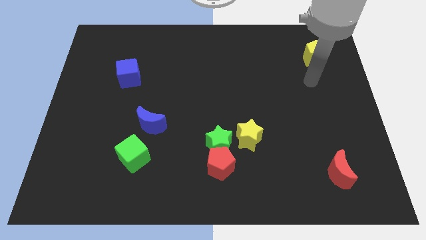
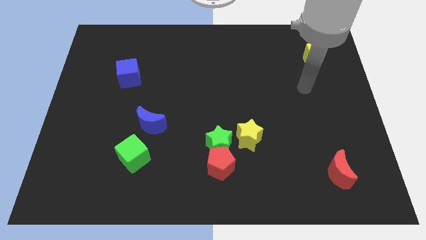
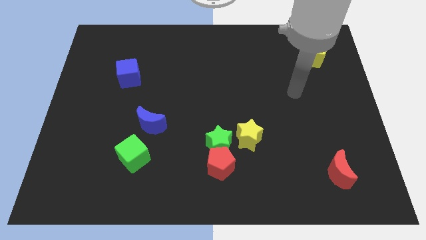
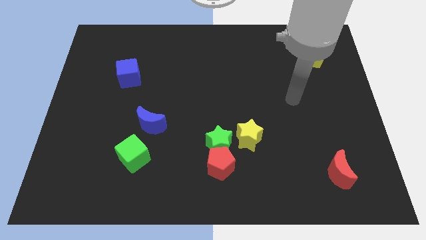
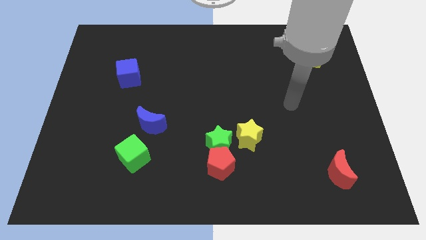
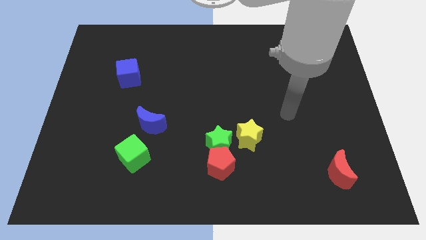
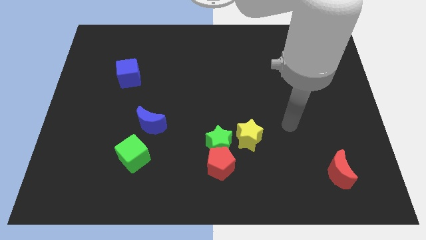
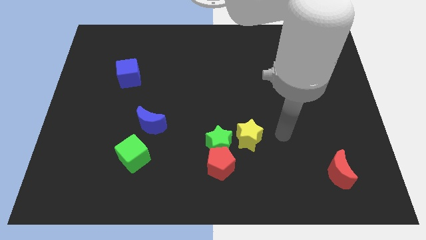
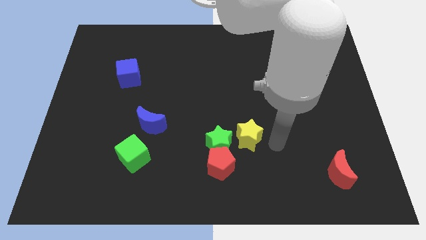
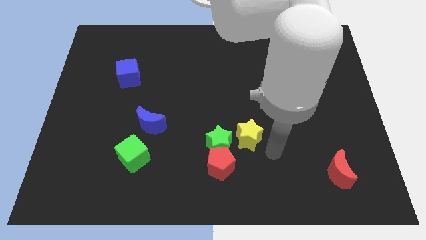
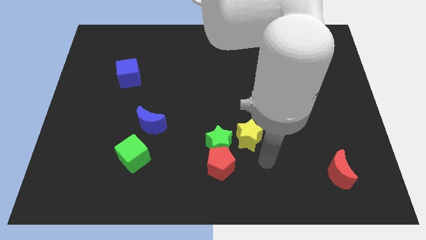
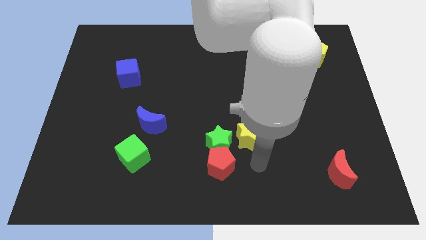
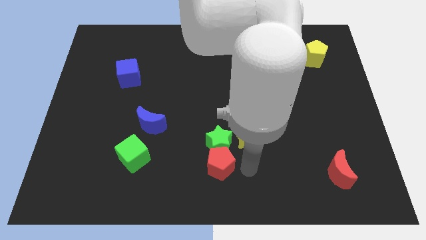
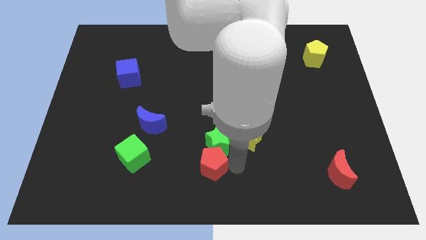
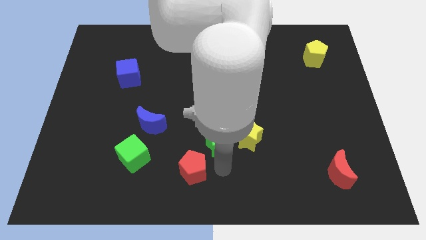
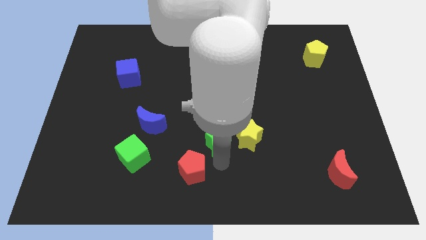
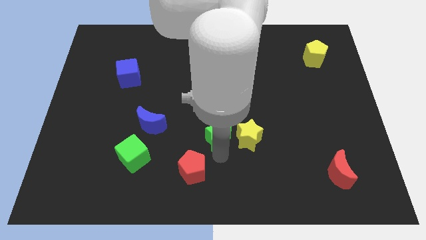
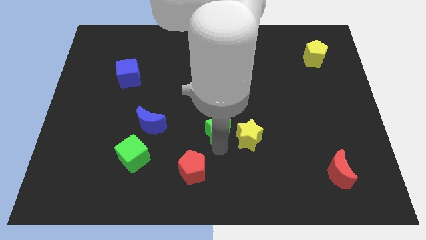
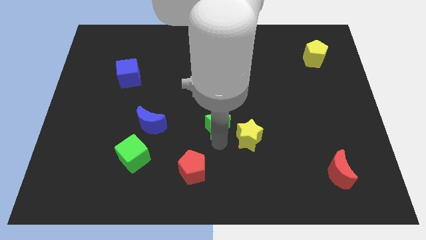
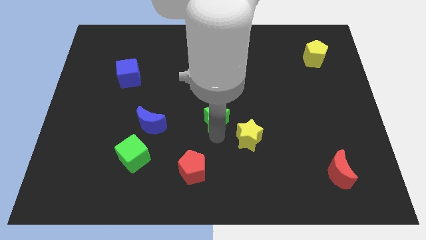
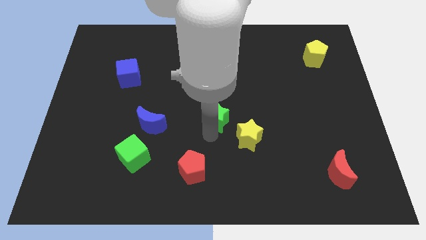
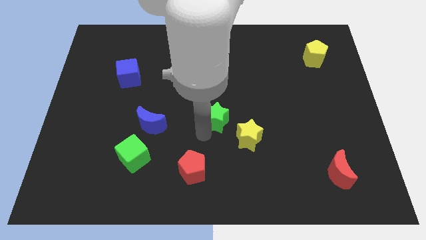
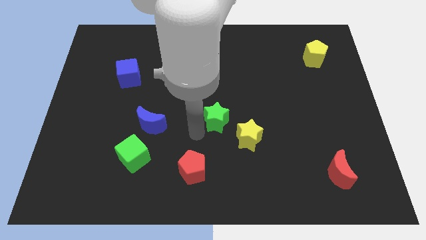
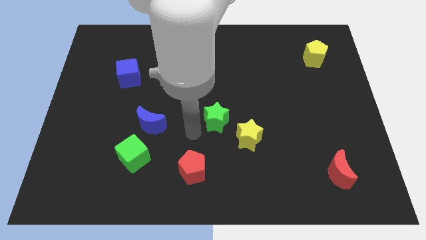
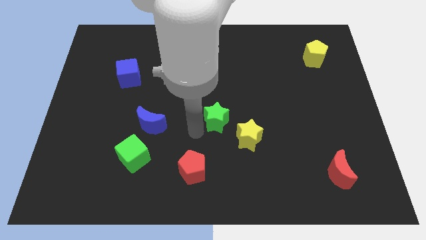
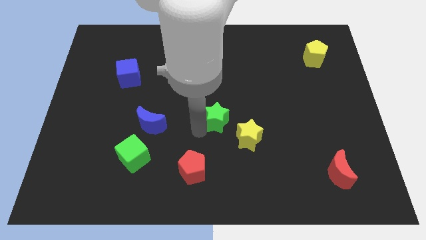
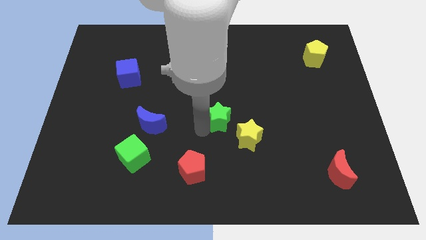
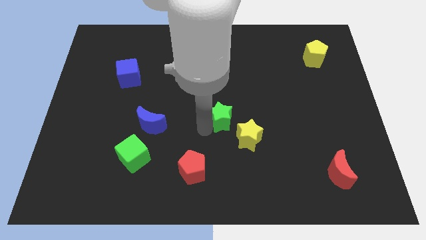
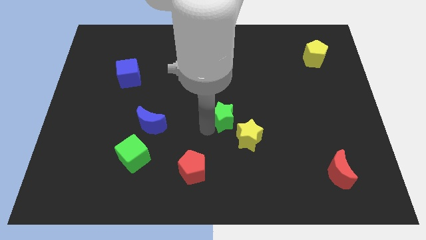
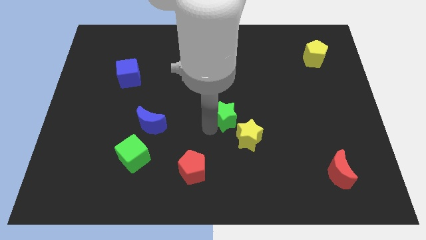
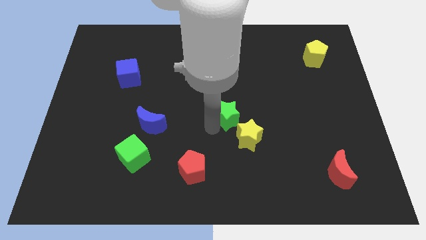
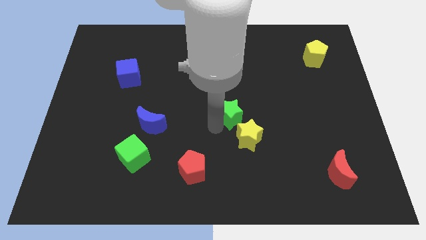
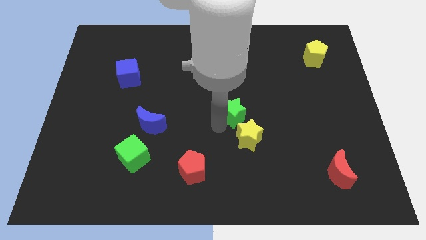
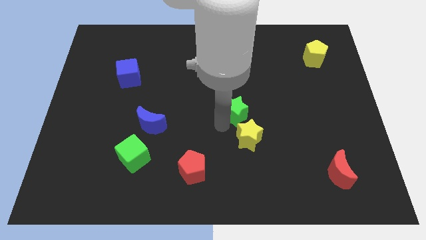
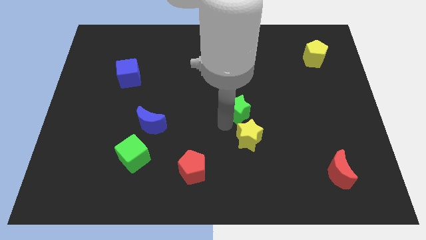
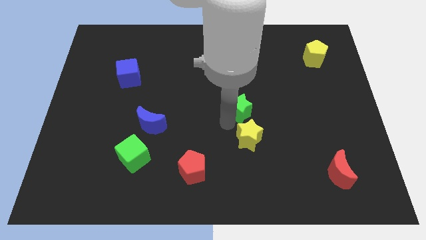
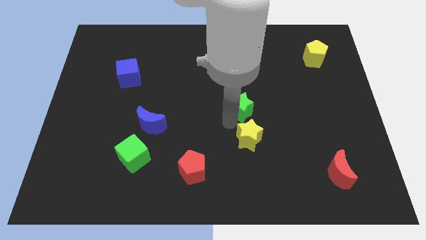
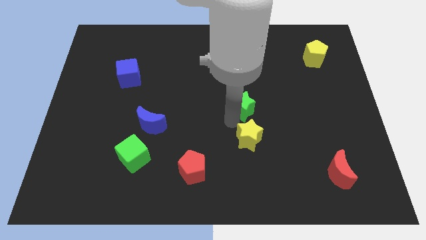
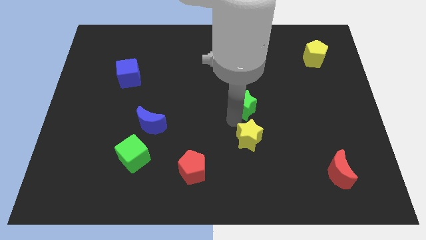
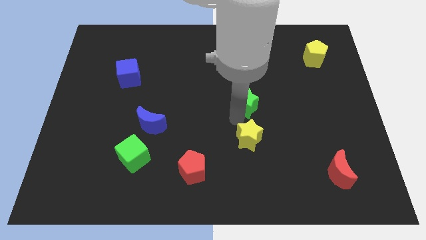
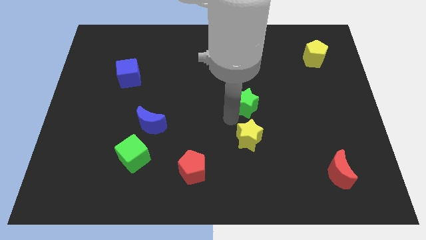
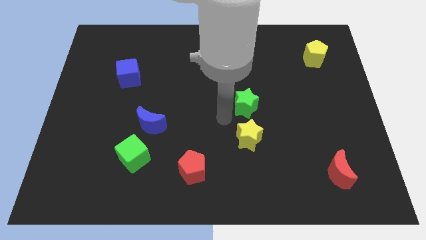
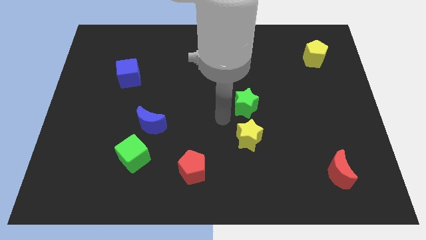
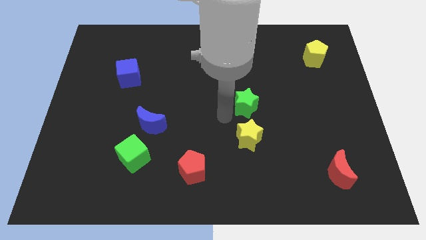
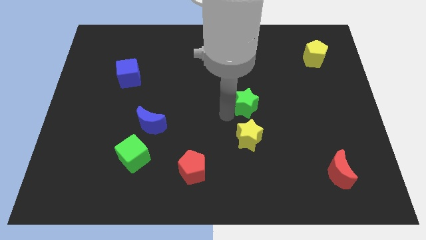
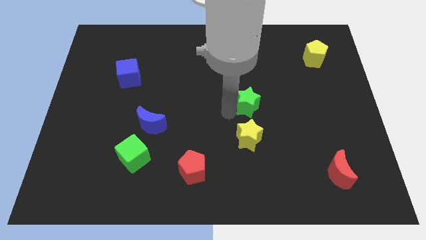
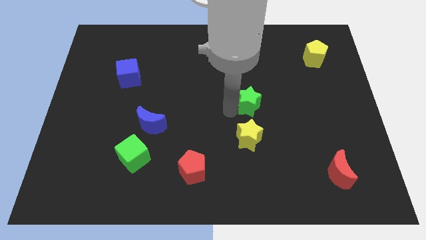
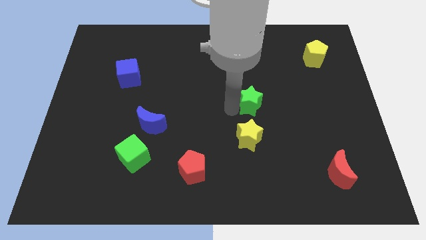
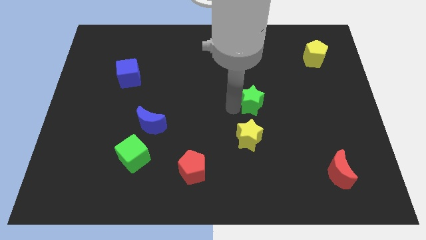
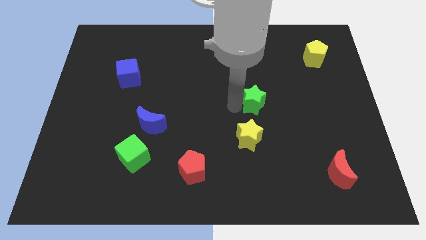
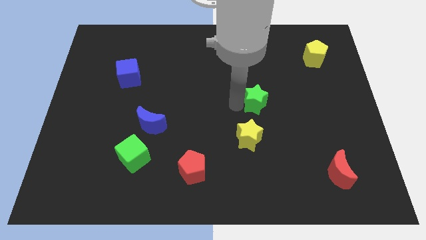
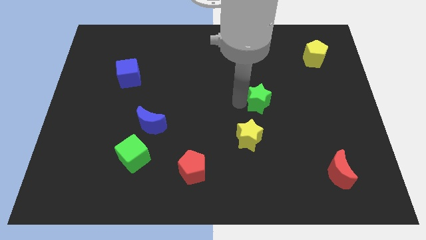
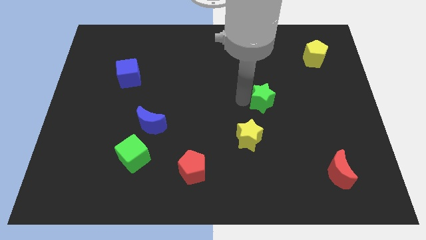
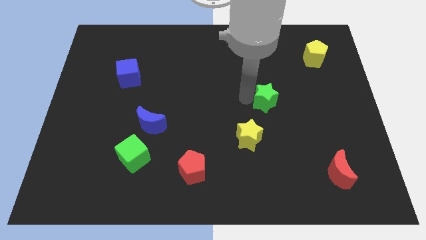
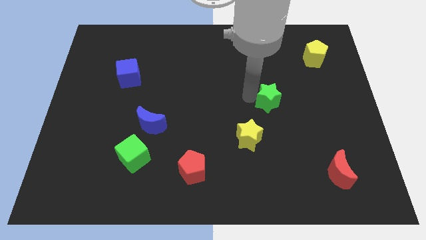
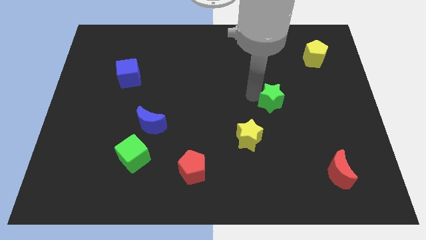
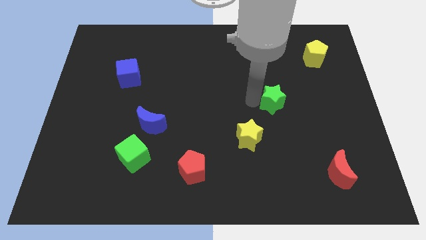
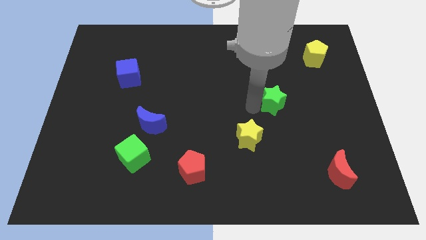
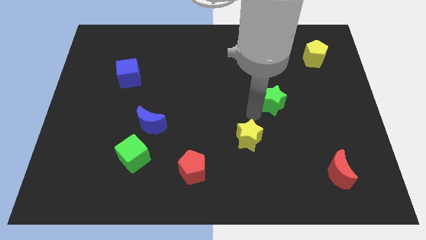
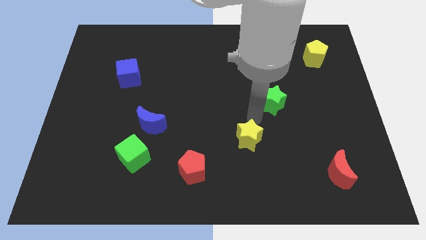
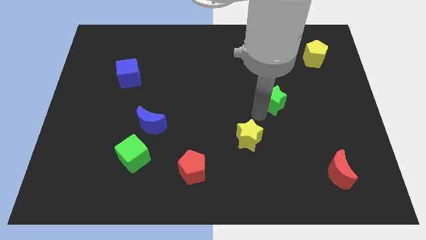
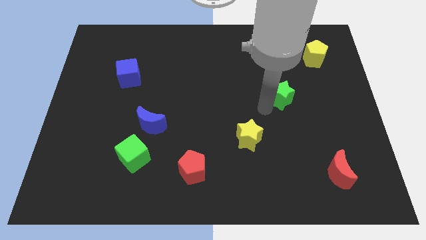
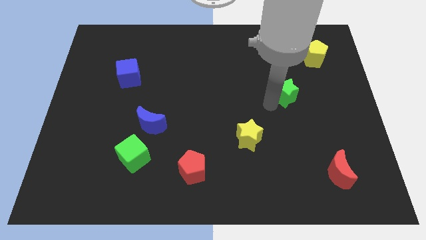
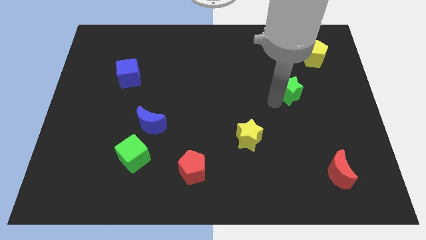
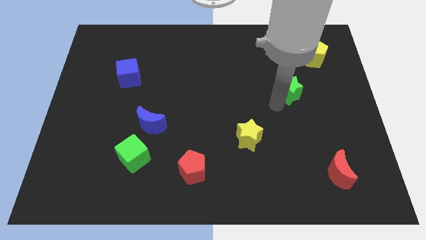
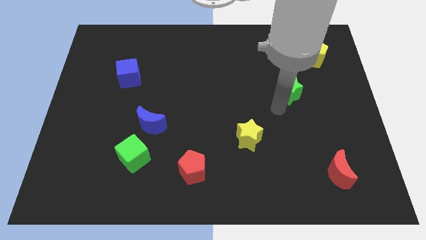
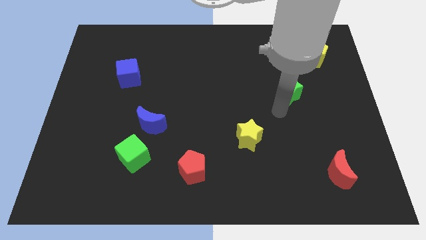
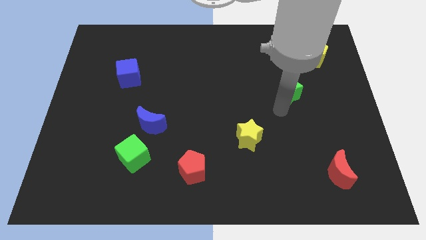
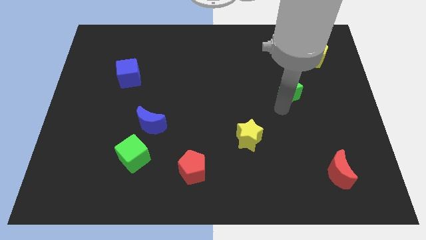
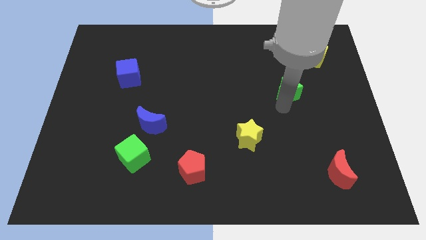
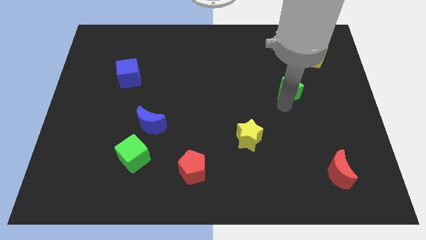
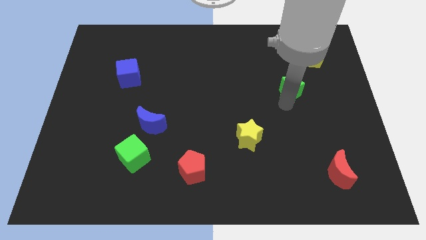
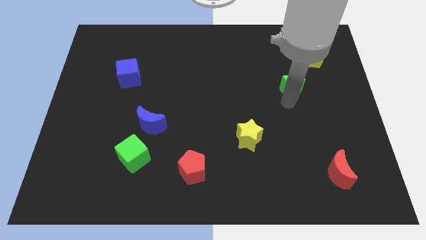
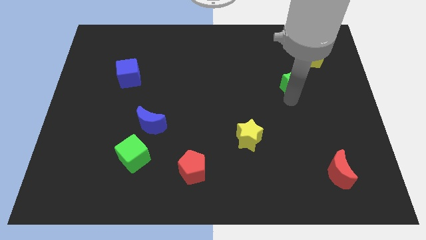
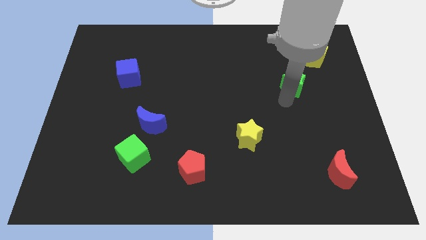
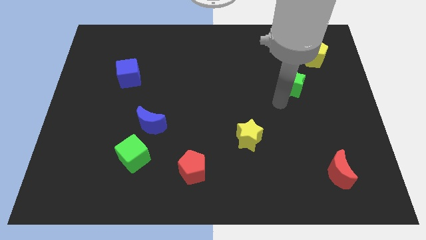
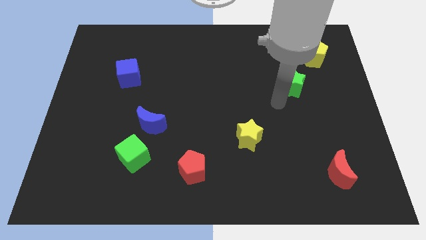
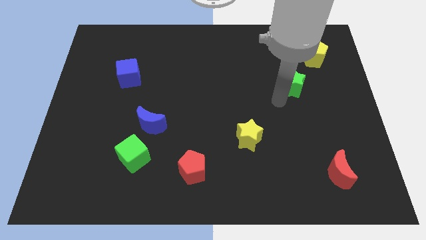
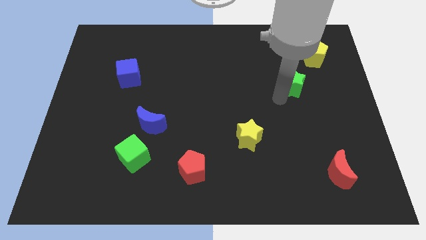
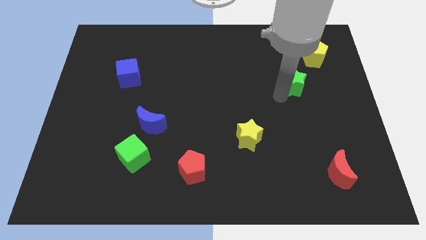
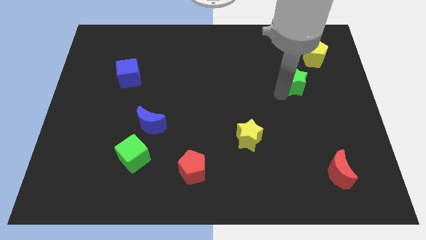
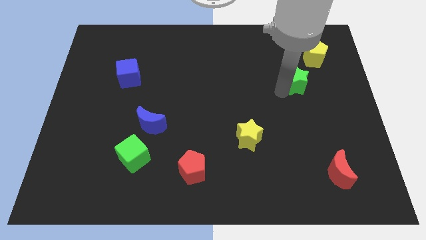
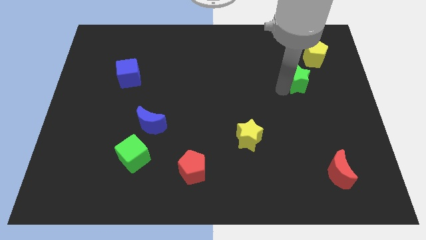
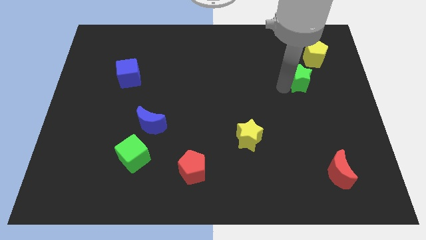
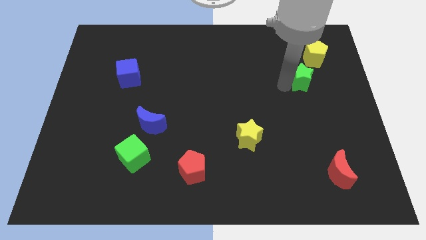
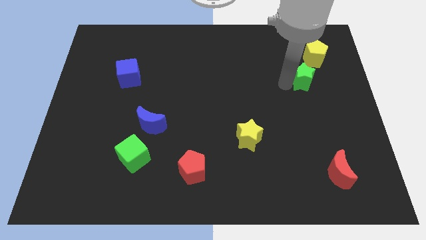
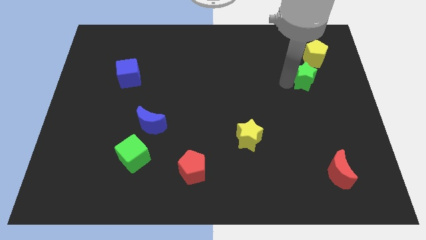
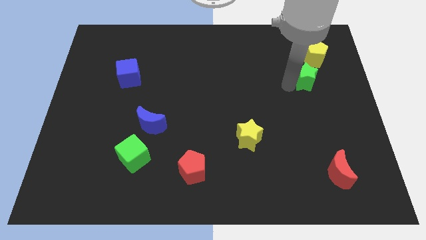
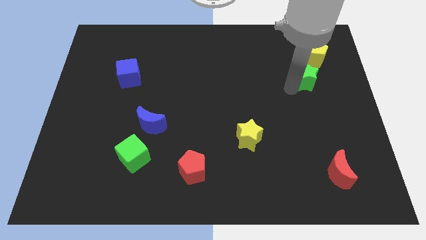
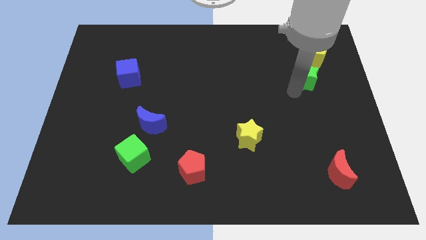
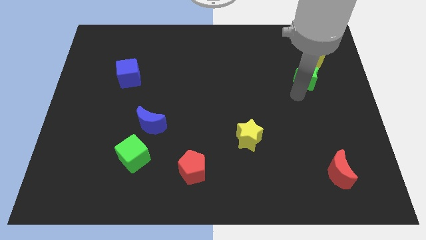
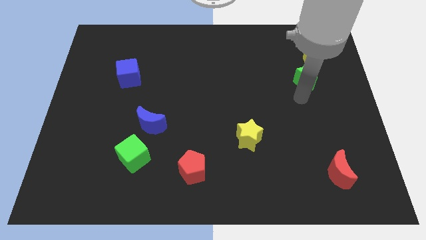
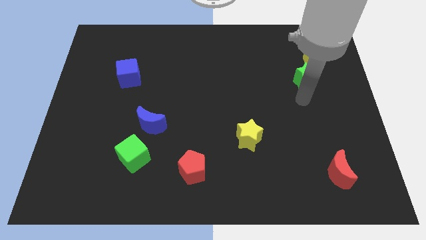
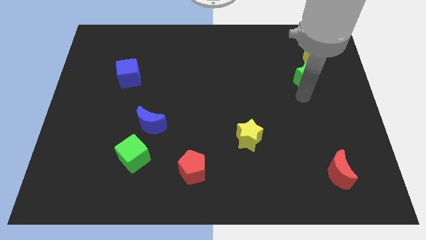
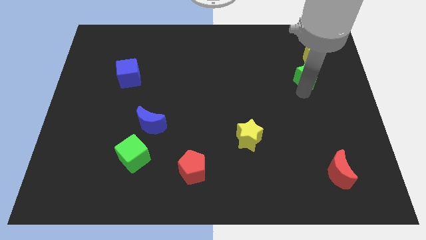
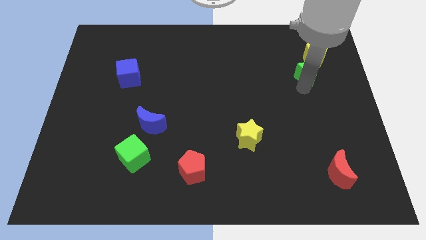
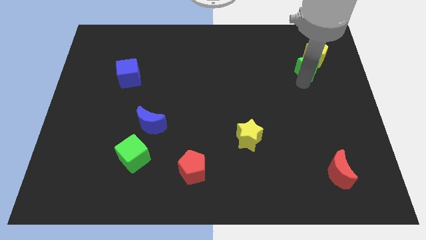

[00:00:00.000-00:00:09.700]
slide the green star towards the yellow pentagon
